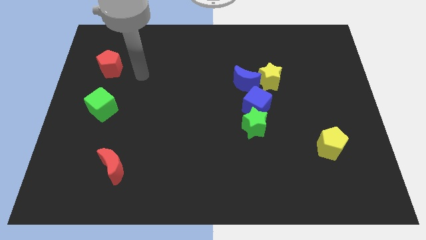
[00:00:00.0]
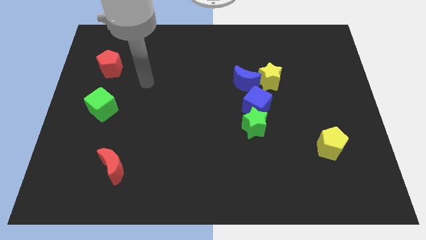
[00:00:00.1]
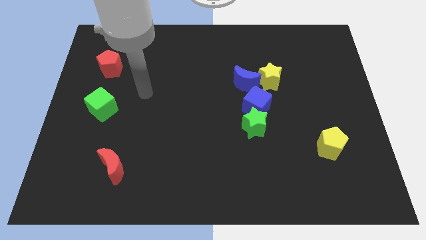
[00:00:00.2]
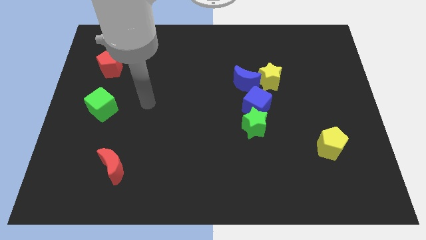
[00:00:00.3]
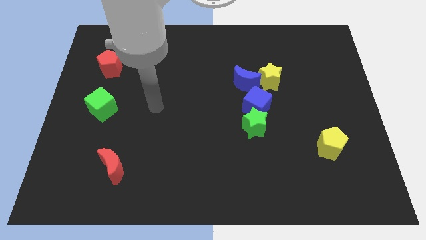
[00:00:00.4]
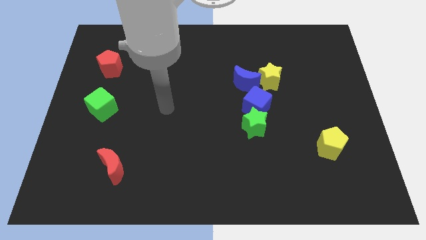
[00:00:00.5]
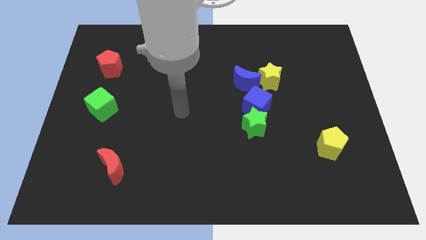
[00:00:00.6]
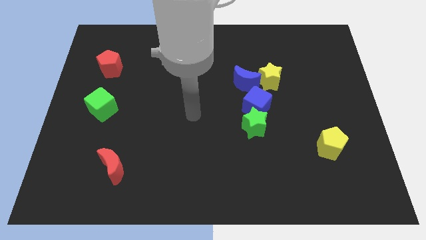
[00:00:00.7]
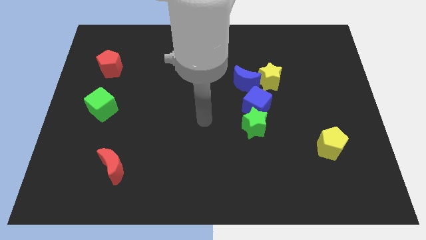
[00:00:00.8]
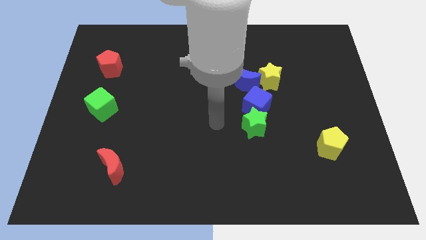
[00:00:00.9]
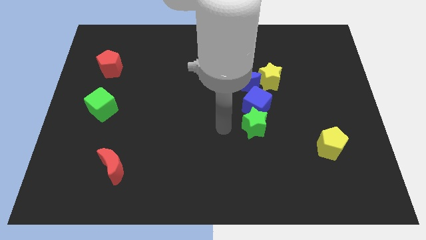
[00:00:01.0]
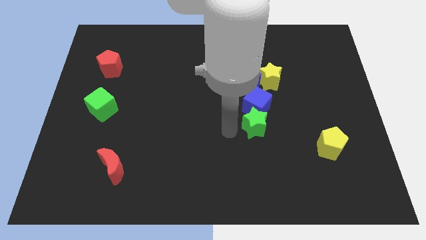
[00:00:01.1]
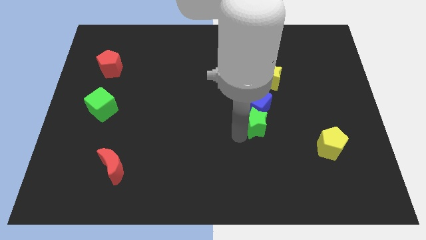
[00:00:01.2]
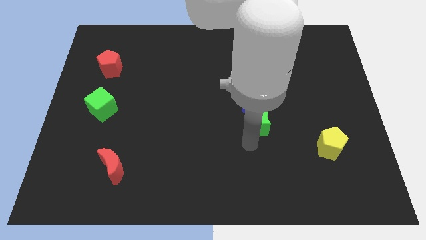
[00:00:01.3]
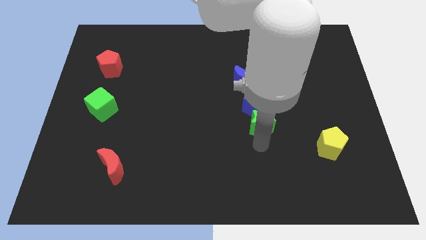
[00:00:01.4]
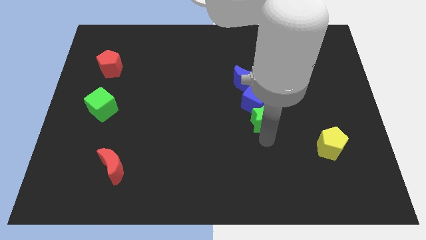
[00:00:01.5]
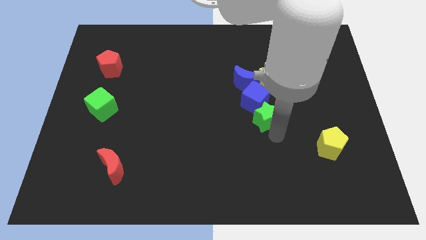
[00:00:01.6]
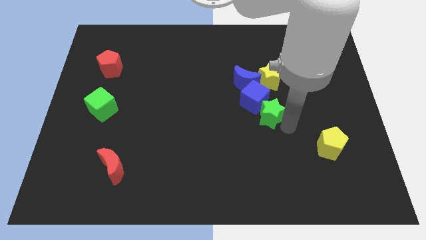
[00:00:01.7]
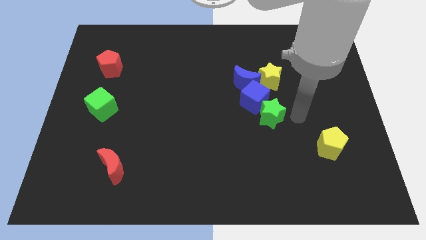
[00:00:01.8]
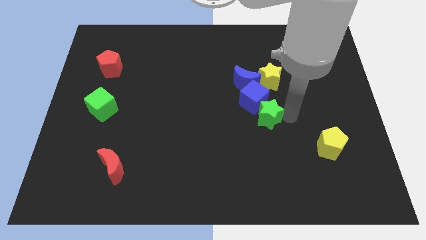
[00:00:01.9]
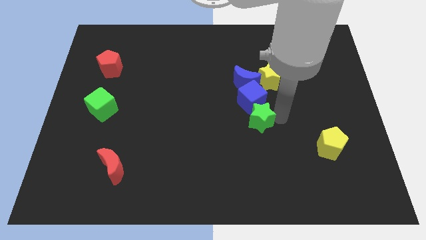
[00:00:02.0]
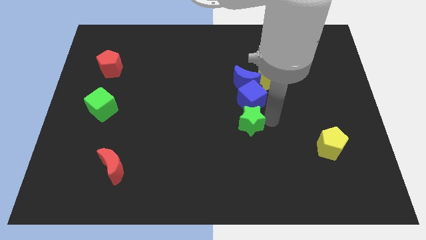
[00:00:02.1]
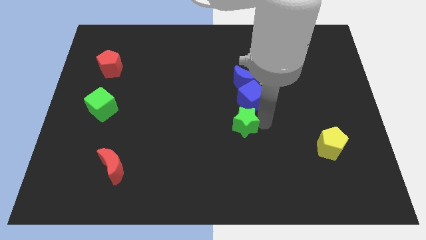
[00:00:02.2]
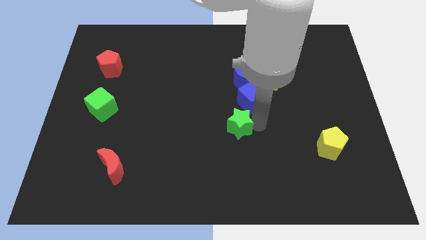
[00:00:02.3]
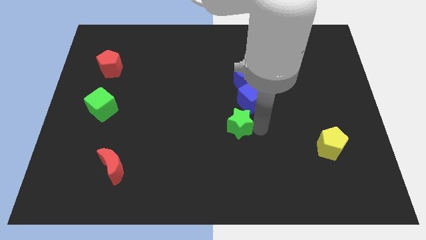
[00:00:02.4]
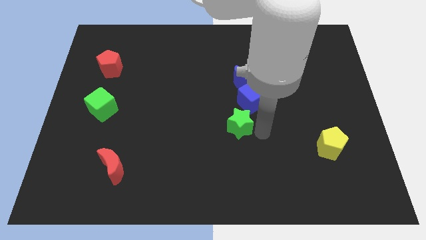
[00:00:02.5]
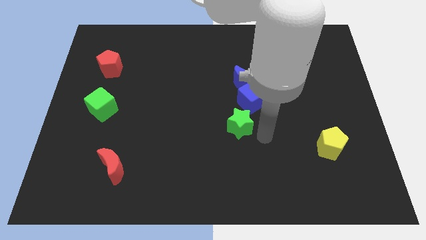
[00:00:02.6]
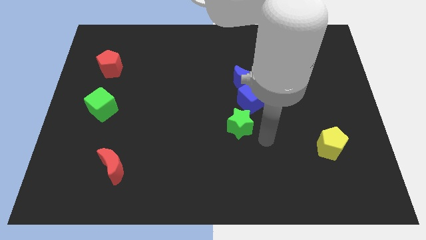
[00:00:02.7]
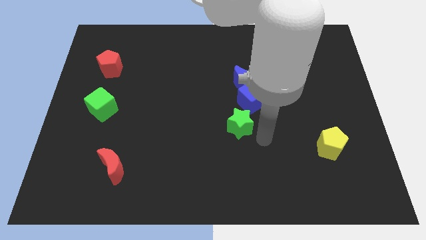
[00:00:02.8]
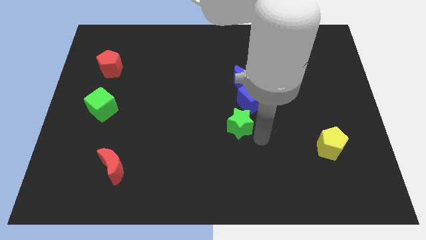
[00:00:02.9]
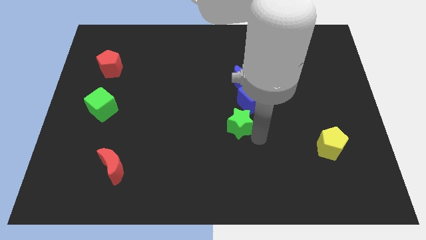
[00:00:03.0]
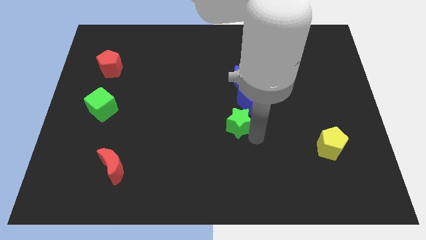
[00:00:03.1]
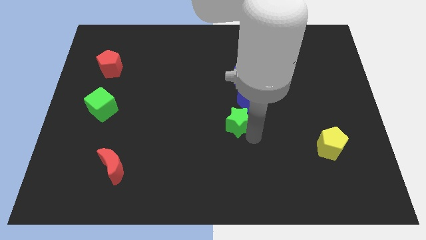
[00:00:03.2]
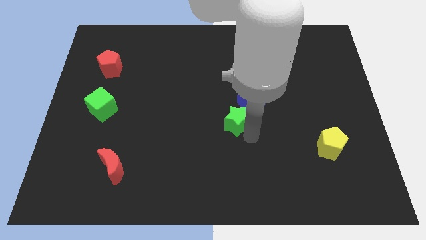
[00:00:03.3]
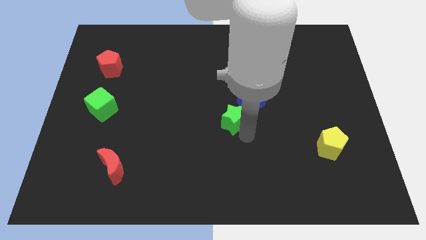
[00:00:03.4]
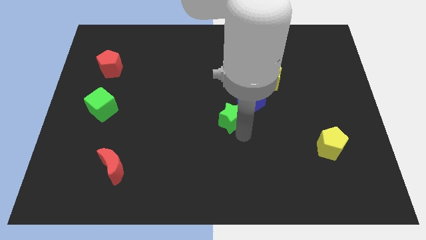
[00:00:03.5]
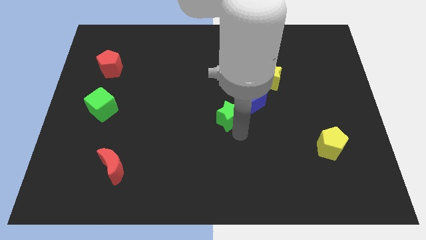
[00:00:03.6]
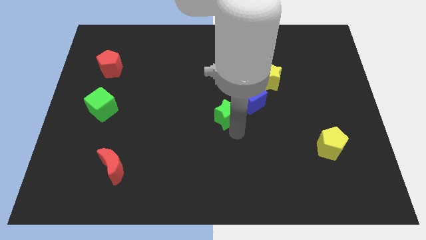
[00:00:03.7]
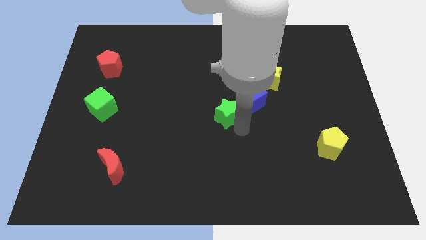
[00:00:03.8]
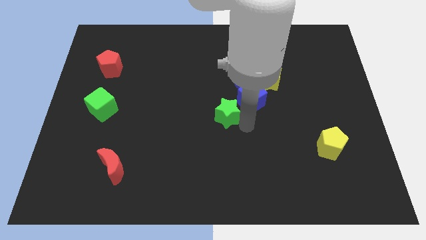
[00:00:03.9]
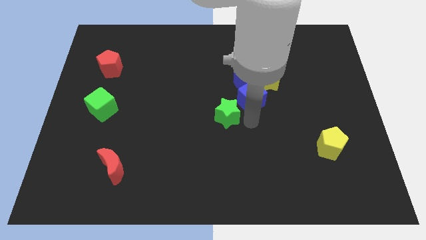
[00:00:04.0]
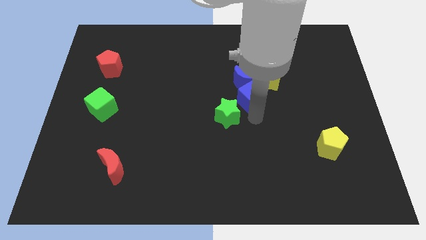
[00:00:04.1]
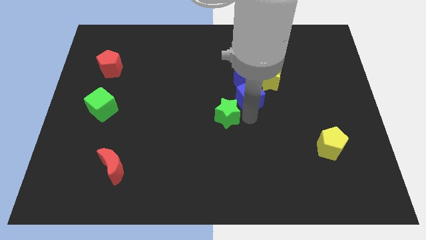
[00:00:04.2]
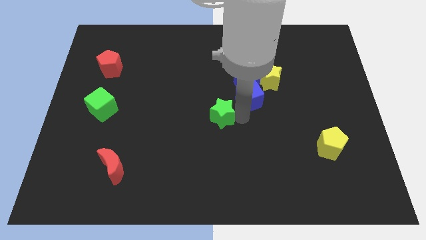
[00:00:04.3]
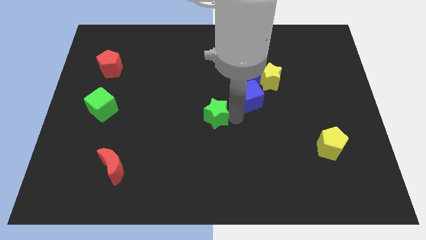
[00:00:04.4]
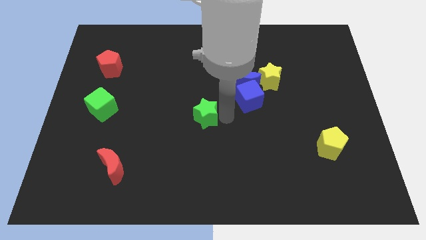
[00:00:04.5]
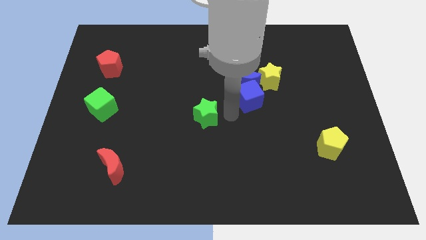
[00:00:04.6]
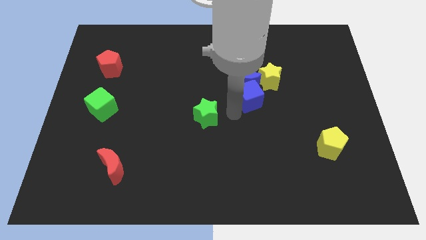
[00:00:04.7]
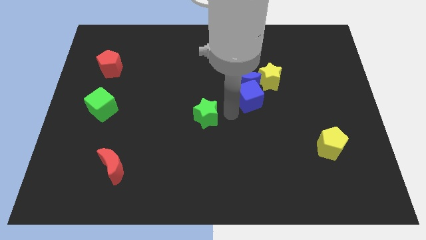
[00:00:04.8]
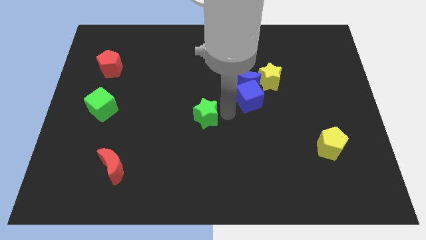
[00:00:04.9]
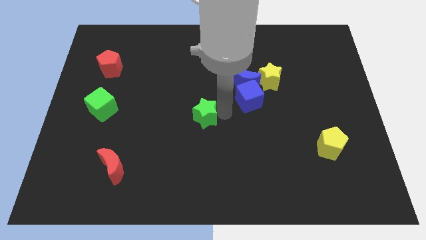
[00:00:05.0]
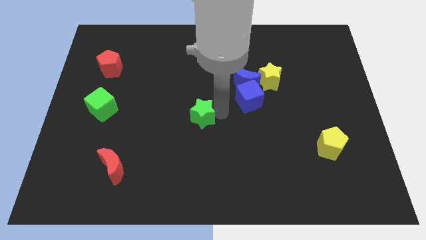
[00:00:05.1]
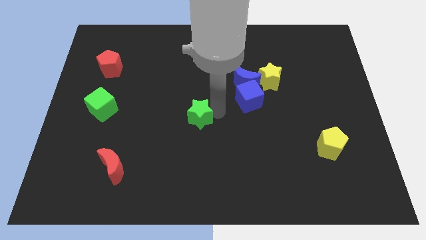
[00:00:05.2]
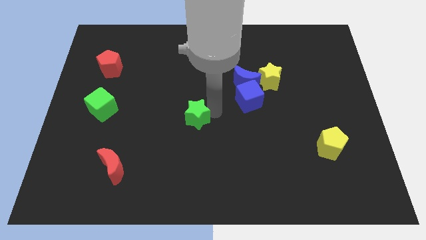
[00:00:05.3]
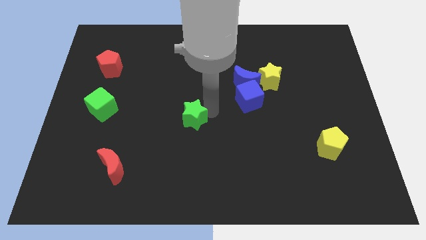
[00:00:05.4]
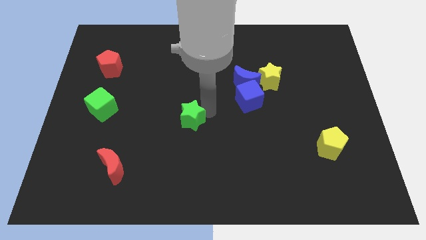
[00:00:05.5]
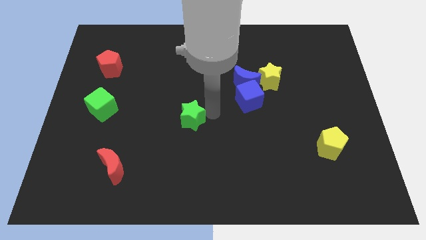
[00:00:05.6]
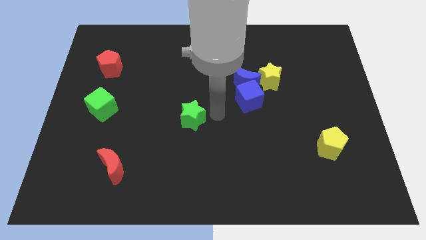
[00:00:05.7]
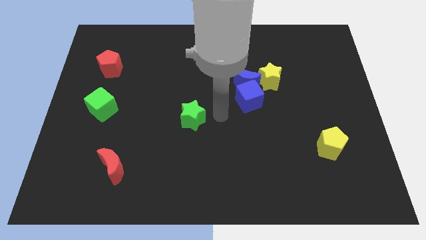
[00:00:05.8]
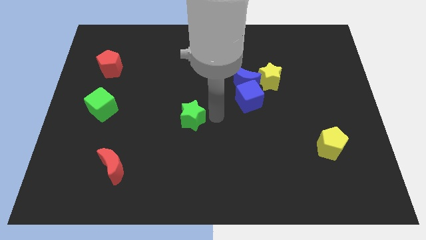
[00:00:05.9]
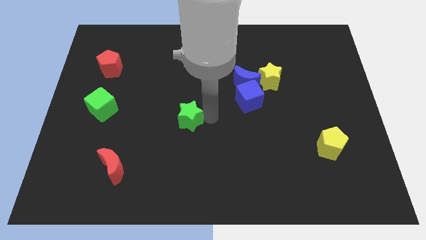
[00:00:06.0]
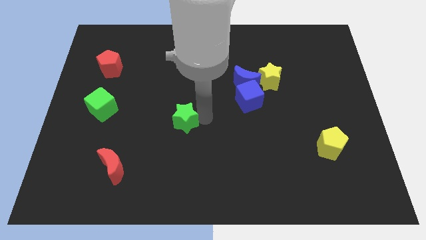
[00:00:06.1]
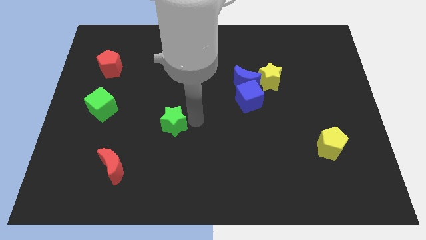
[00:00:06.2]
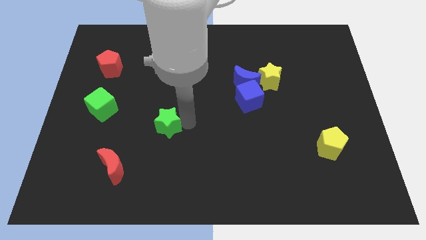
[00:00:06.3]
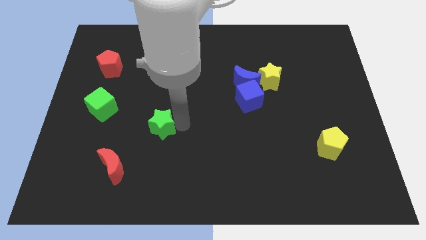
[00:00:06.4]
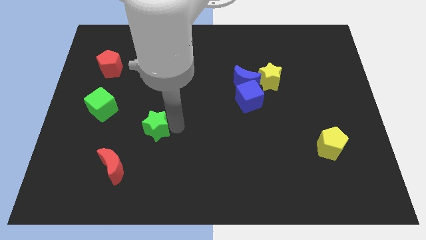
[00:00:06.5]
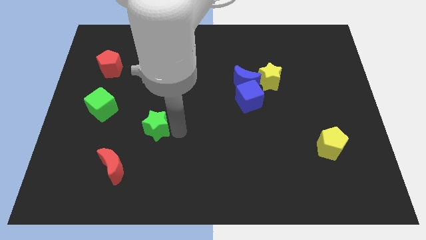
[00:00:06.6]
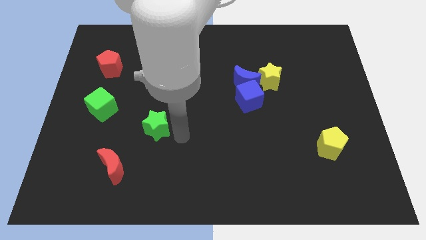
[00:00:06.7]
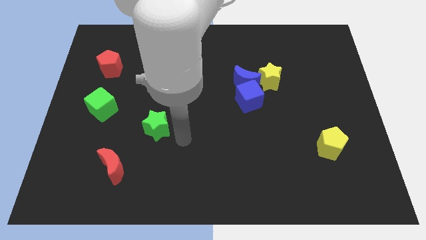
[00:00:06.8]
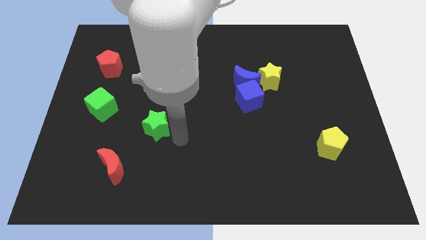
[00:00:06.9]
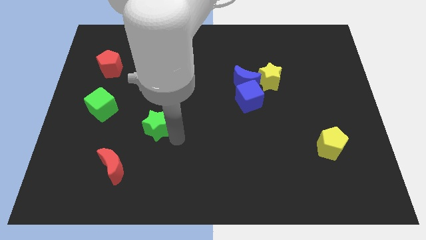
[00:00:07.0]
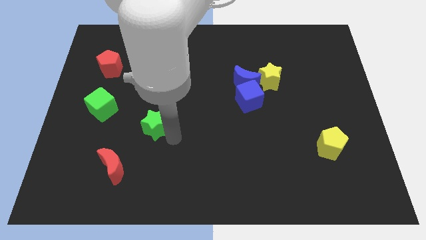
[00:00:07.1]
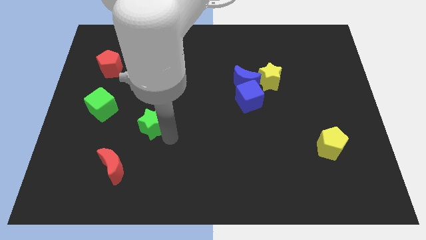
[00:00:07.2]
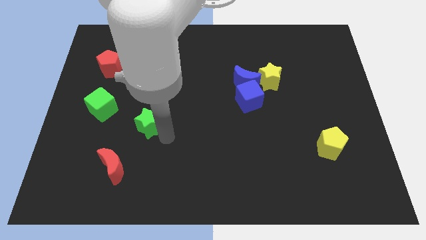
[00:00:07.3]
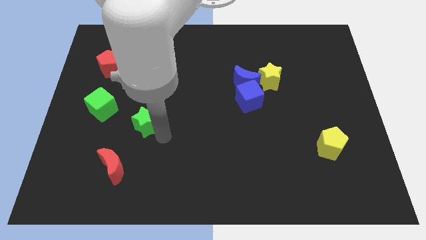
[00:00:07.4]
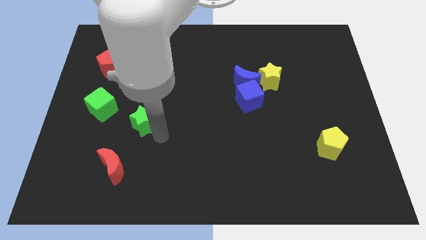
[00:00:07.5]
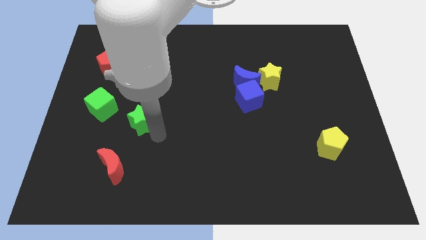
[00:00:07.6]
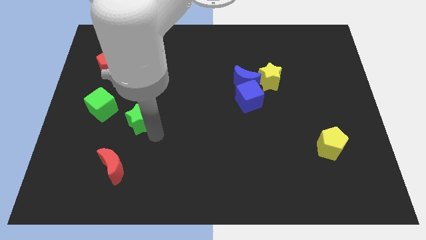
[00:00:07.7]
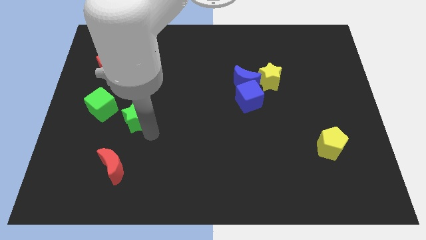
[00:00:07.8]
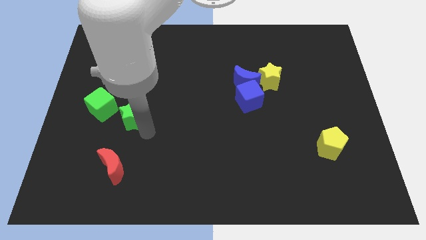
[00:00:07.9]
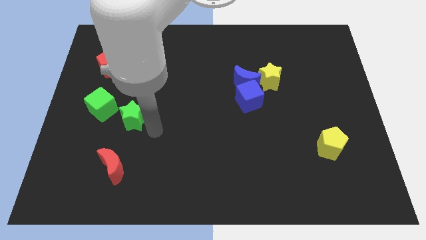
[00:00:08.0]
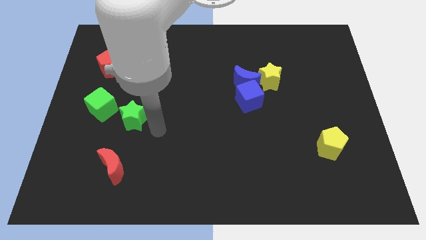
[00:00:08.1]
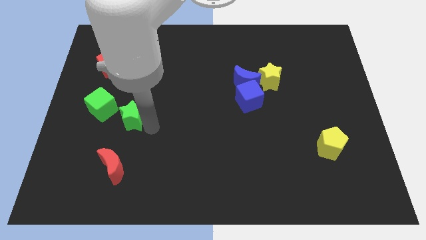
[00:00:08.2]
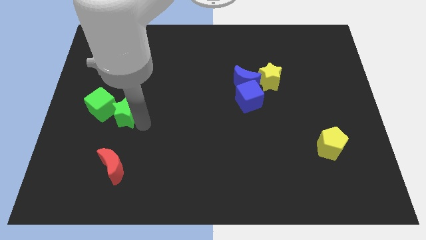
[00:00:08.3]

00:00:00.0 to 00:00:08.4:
move the green star close to the green cube
